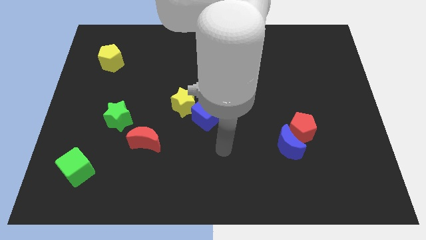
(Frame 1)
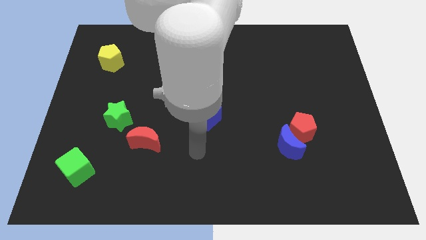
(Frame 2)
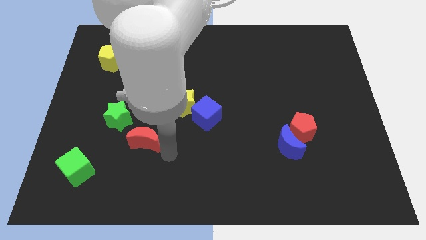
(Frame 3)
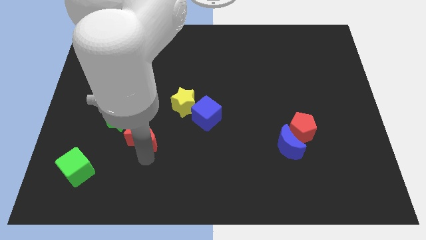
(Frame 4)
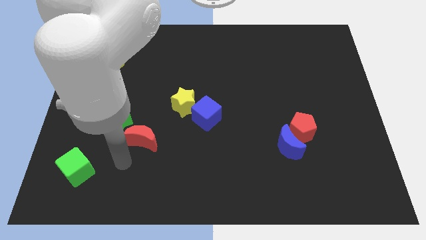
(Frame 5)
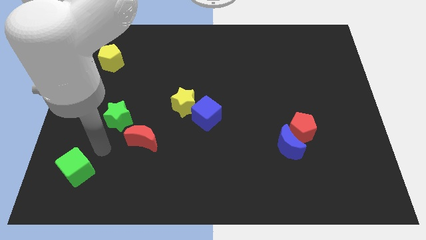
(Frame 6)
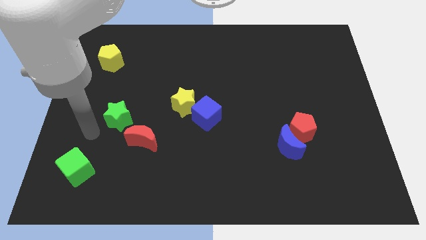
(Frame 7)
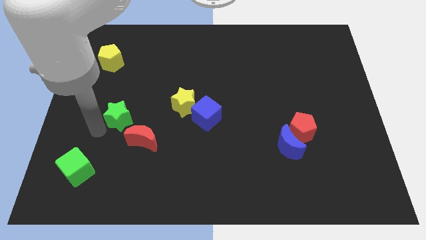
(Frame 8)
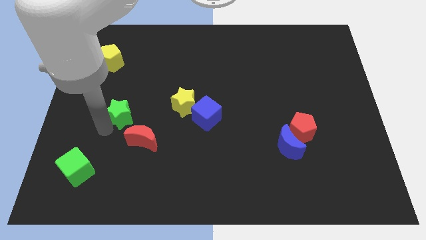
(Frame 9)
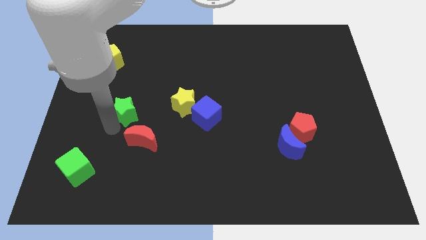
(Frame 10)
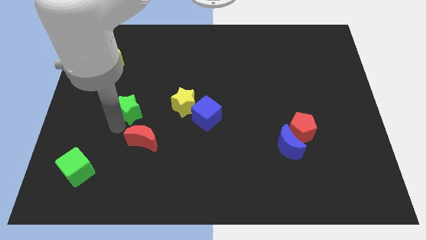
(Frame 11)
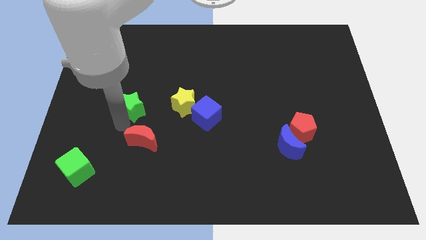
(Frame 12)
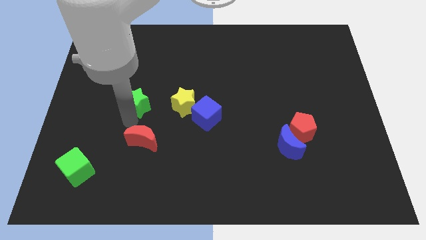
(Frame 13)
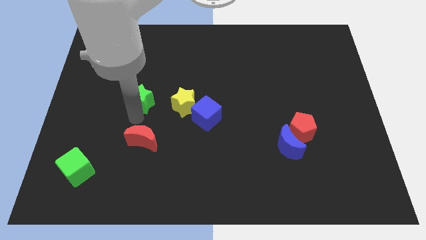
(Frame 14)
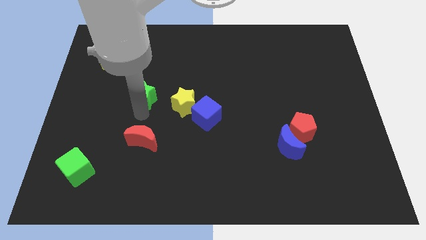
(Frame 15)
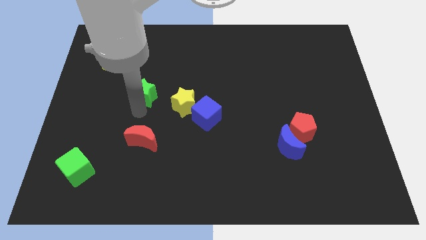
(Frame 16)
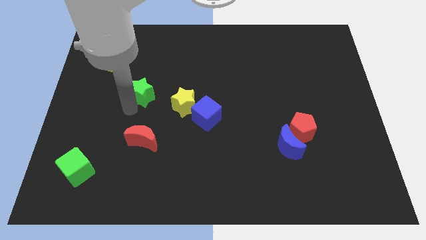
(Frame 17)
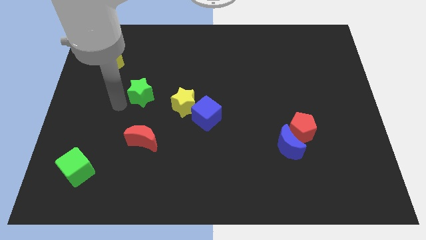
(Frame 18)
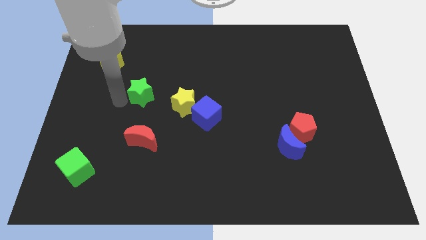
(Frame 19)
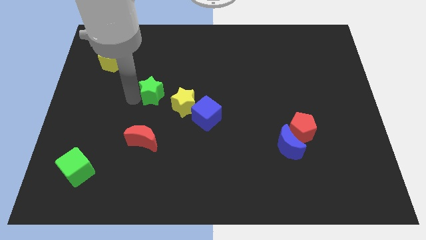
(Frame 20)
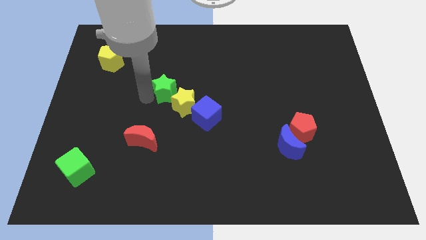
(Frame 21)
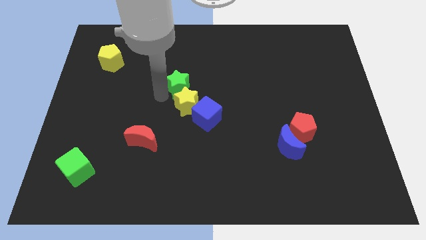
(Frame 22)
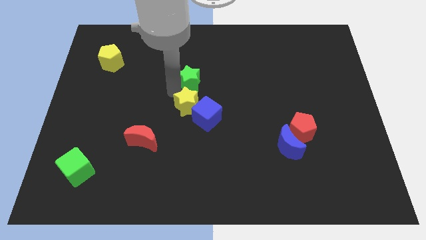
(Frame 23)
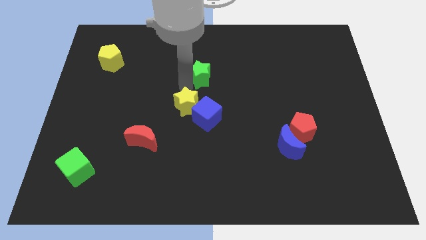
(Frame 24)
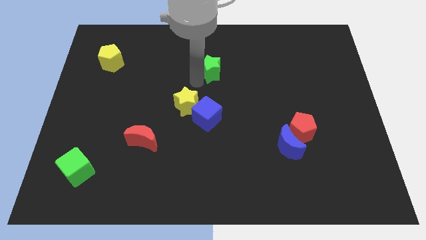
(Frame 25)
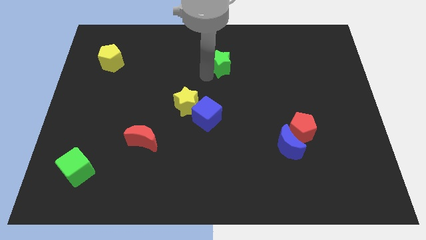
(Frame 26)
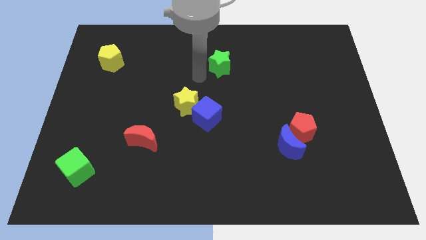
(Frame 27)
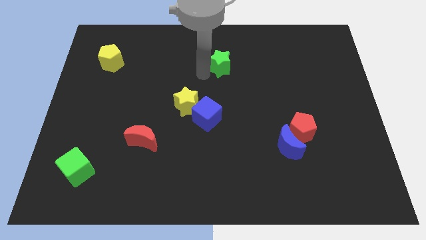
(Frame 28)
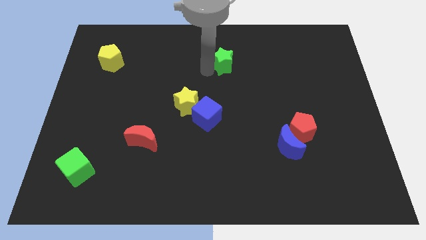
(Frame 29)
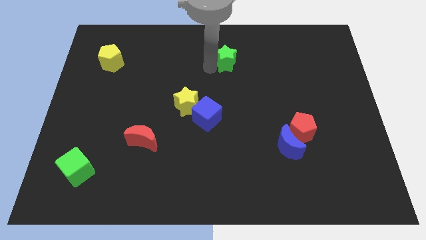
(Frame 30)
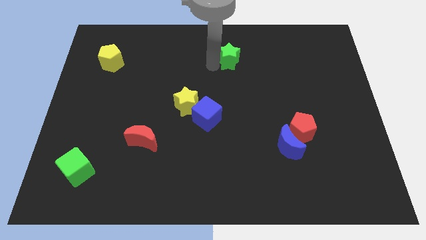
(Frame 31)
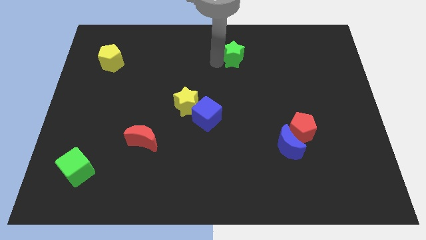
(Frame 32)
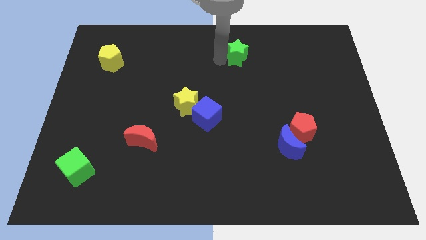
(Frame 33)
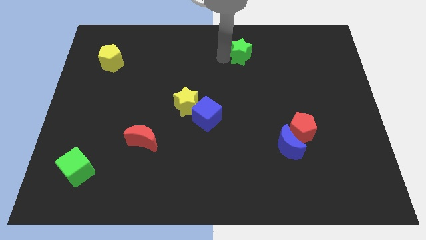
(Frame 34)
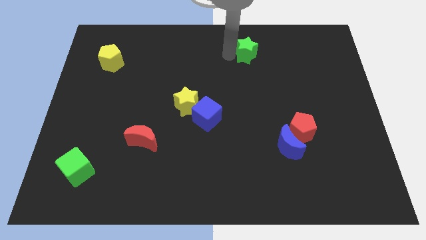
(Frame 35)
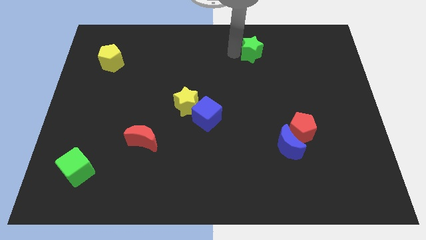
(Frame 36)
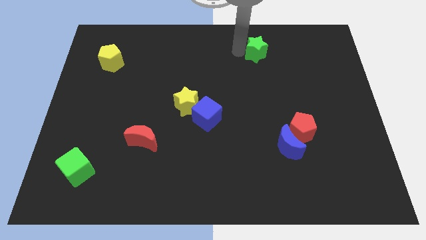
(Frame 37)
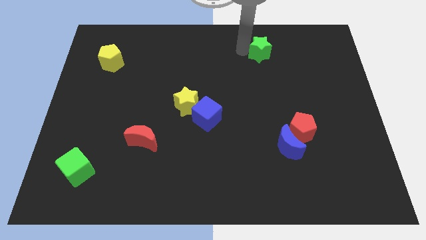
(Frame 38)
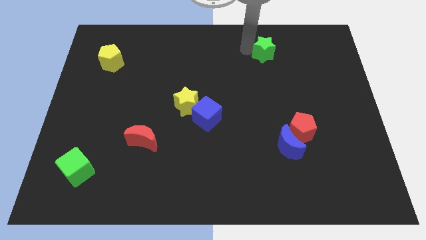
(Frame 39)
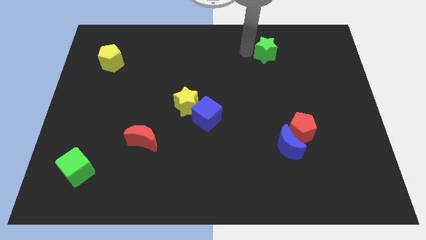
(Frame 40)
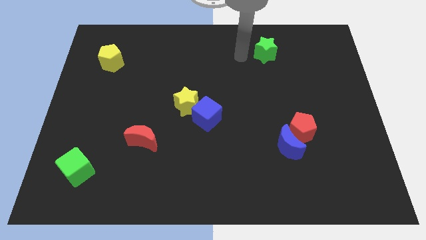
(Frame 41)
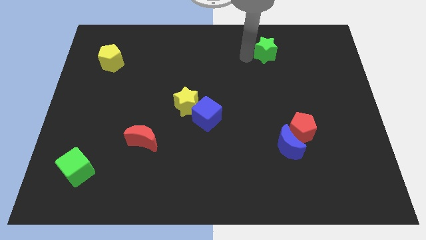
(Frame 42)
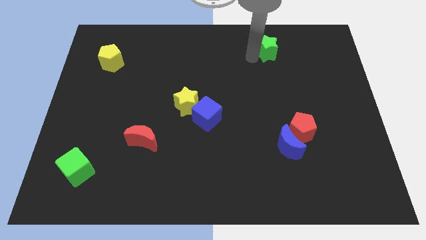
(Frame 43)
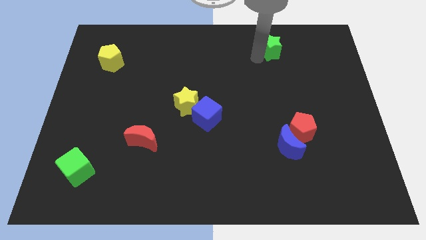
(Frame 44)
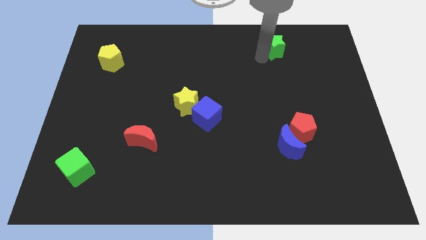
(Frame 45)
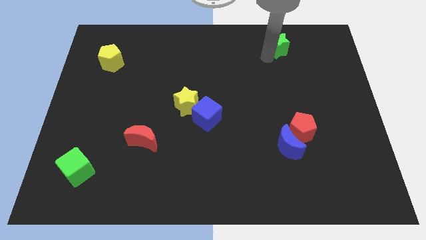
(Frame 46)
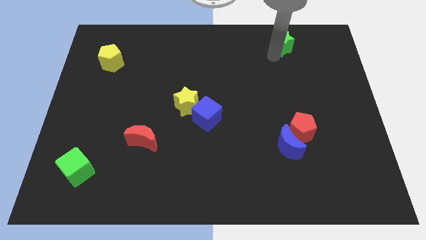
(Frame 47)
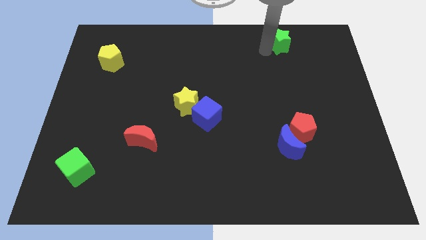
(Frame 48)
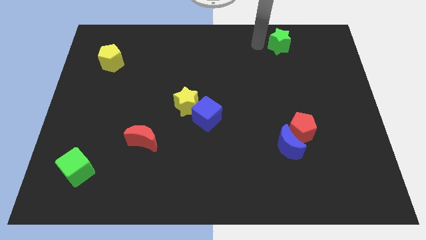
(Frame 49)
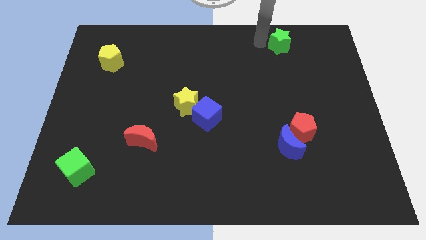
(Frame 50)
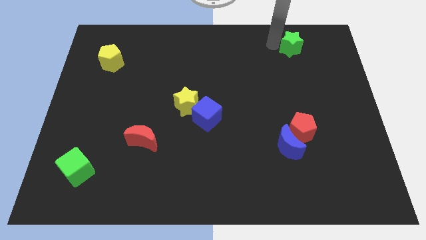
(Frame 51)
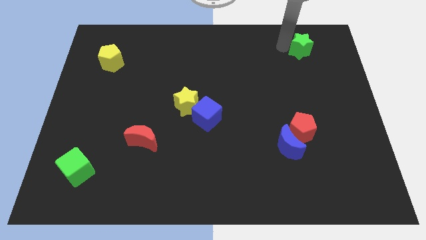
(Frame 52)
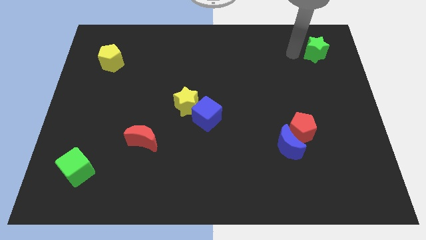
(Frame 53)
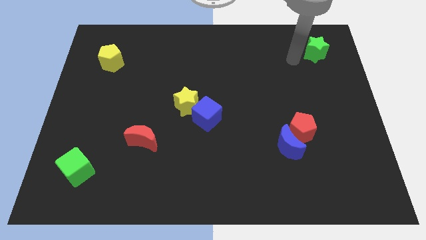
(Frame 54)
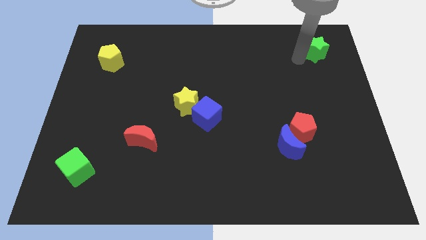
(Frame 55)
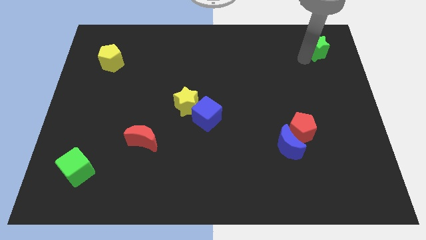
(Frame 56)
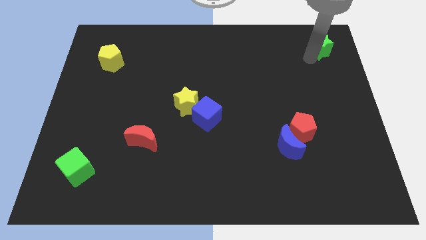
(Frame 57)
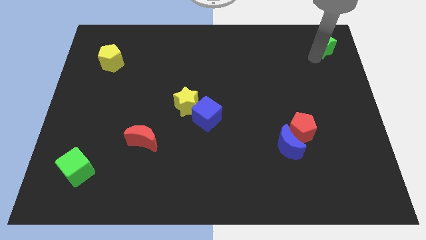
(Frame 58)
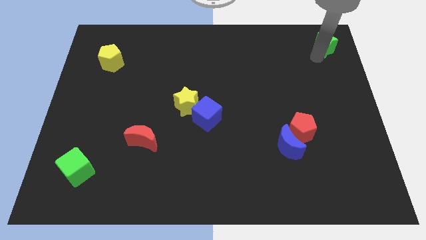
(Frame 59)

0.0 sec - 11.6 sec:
move the green star to the top right of the board
